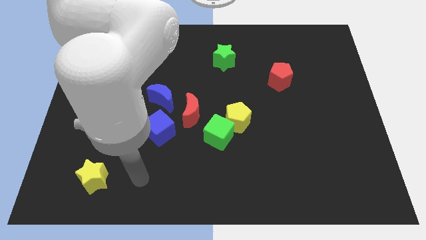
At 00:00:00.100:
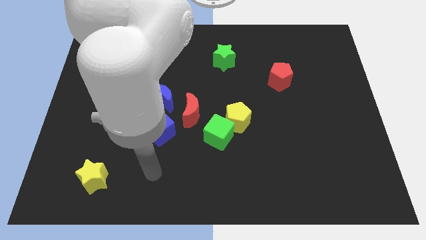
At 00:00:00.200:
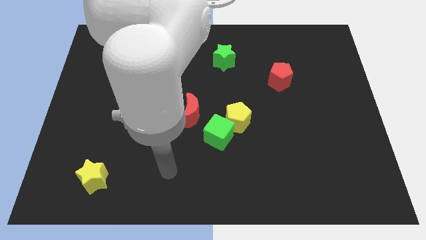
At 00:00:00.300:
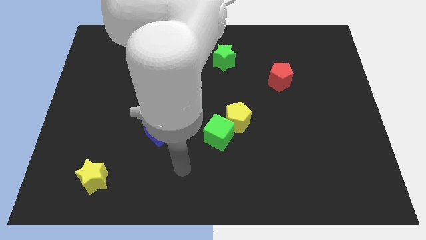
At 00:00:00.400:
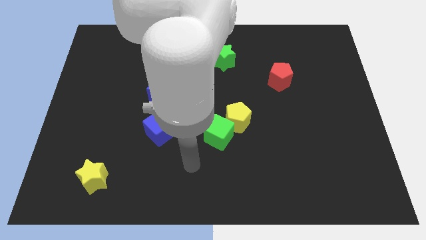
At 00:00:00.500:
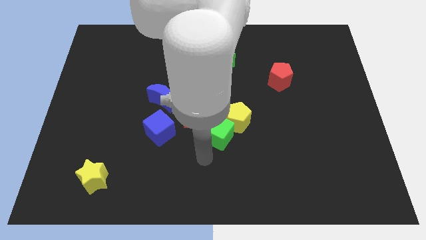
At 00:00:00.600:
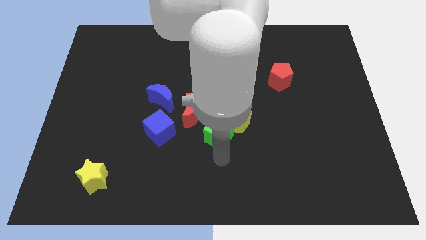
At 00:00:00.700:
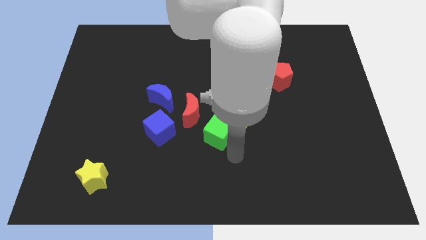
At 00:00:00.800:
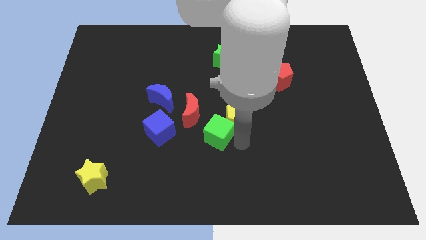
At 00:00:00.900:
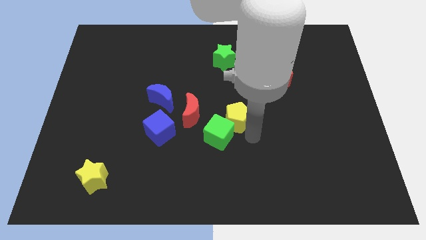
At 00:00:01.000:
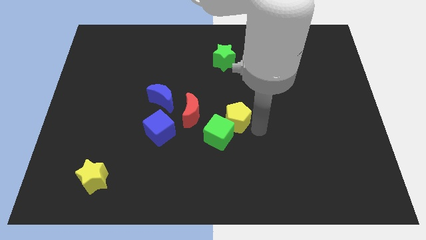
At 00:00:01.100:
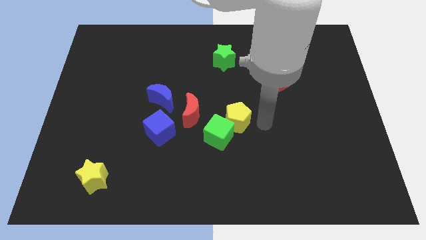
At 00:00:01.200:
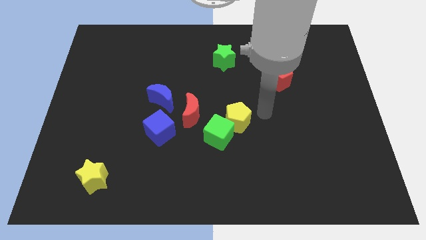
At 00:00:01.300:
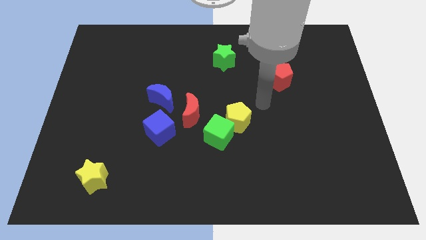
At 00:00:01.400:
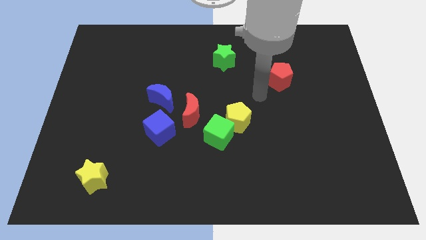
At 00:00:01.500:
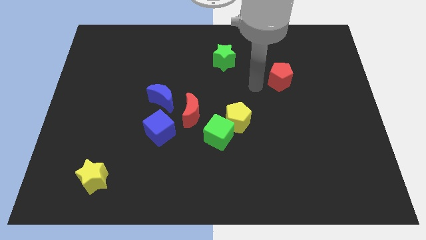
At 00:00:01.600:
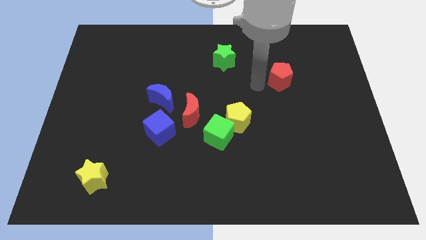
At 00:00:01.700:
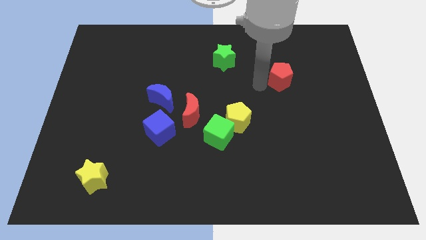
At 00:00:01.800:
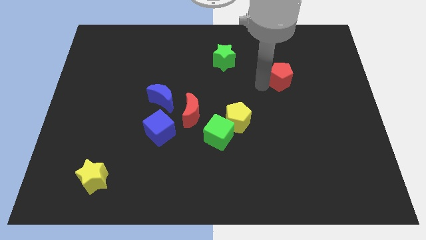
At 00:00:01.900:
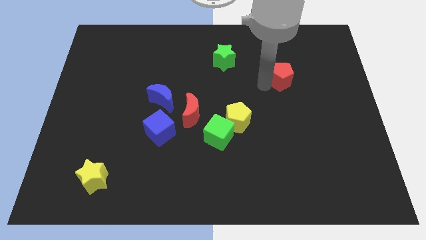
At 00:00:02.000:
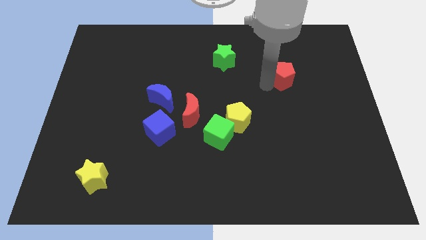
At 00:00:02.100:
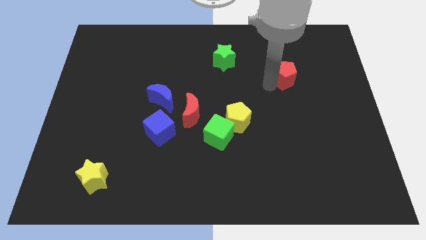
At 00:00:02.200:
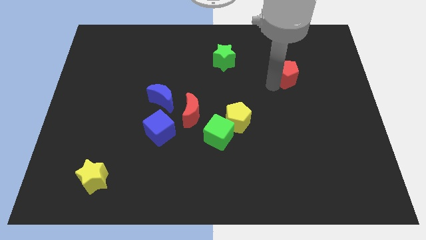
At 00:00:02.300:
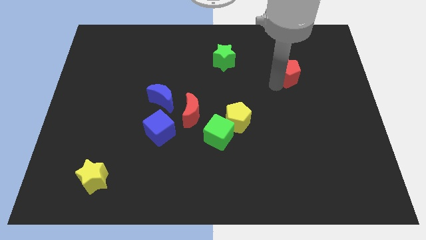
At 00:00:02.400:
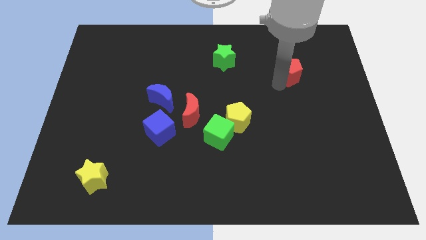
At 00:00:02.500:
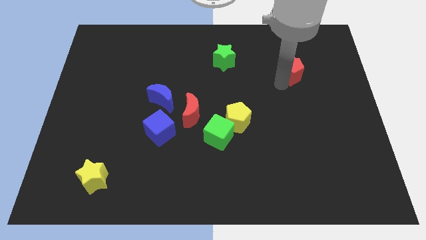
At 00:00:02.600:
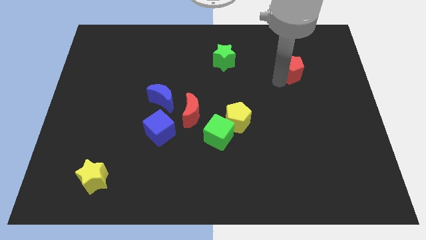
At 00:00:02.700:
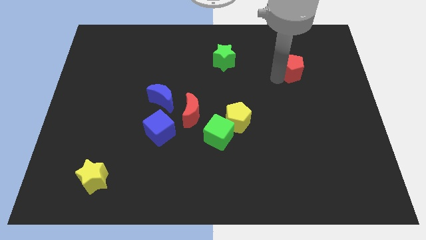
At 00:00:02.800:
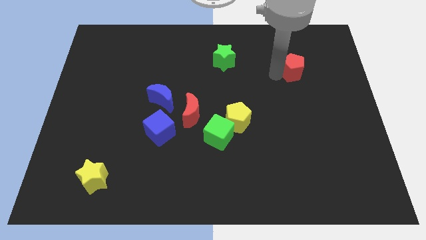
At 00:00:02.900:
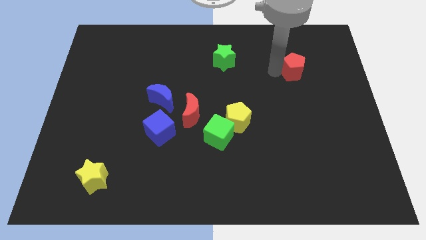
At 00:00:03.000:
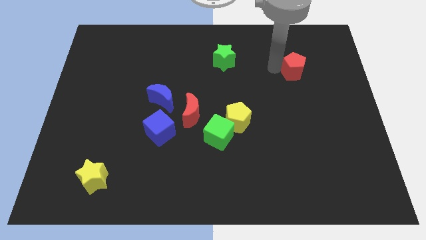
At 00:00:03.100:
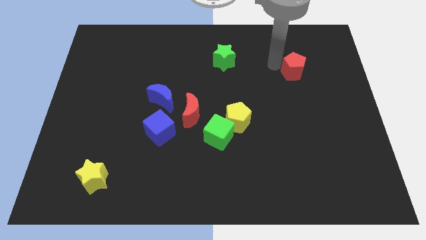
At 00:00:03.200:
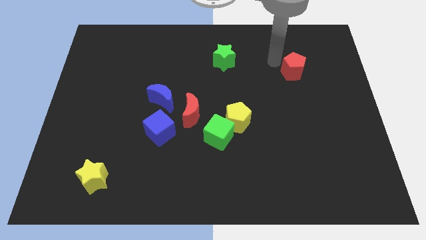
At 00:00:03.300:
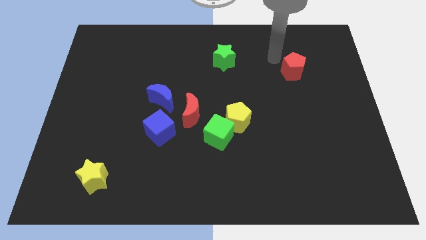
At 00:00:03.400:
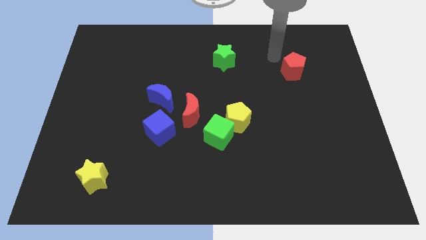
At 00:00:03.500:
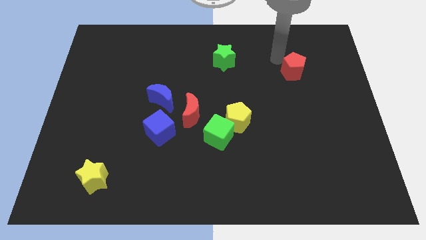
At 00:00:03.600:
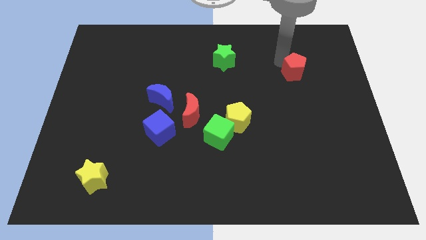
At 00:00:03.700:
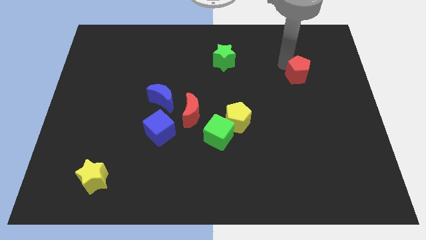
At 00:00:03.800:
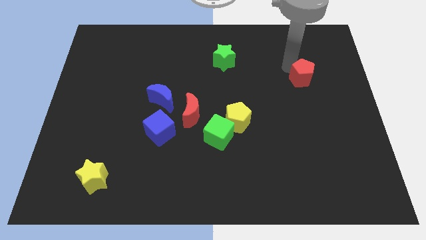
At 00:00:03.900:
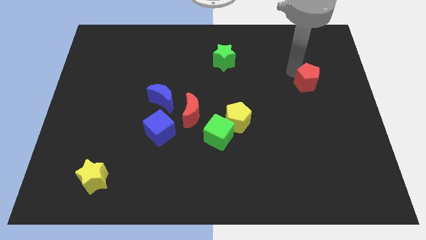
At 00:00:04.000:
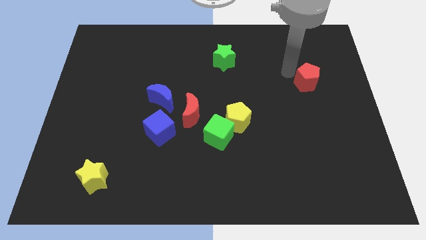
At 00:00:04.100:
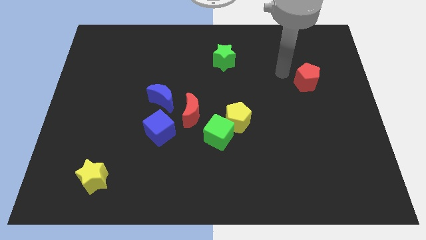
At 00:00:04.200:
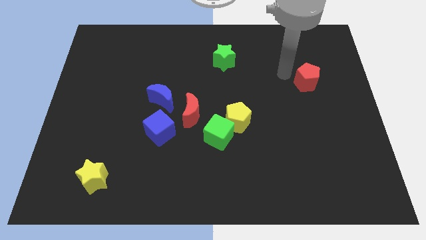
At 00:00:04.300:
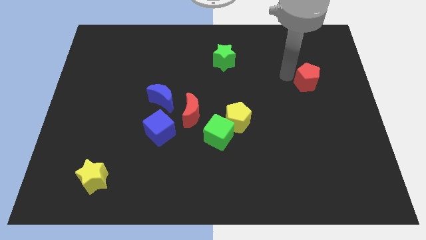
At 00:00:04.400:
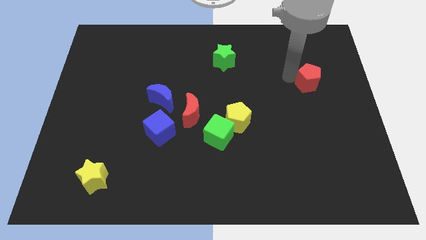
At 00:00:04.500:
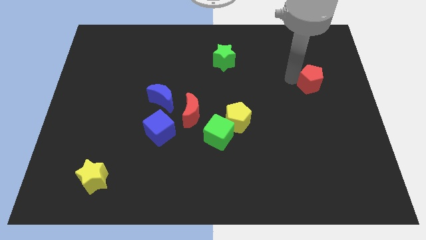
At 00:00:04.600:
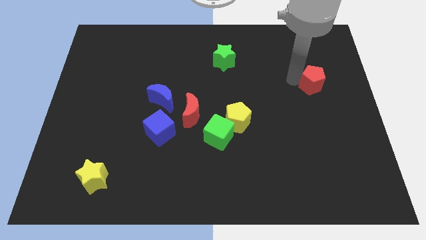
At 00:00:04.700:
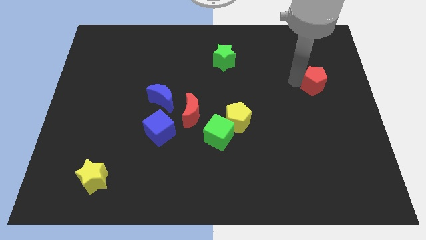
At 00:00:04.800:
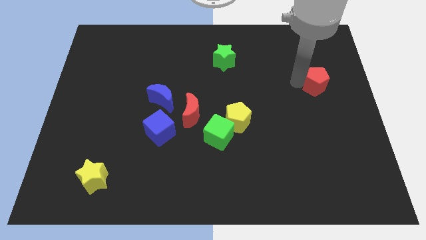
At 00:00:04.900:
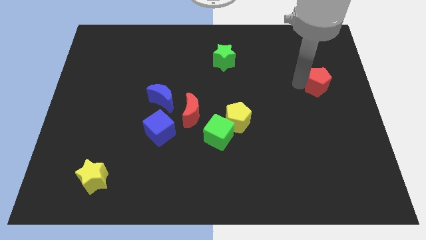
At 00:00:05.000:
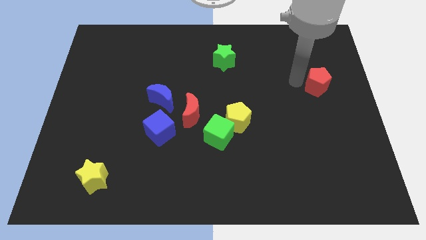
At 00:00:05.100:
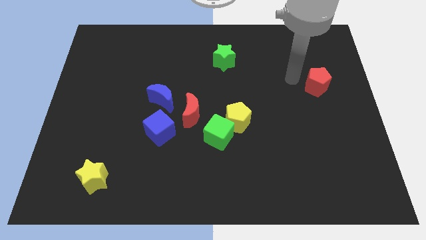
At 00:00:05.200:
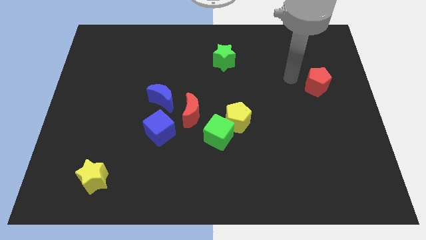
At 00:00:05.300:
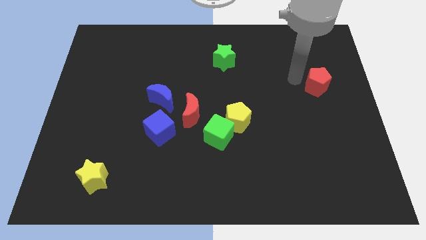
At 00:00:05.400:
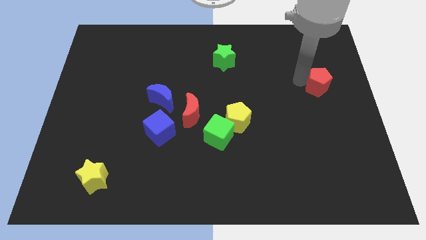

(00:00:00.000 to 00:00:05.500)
slide the red pentagon to the right side of the board

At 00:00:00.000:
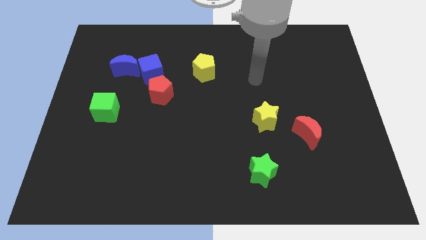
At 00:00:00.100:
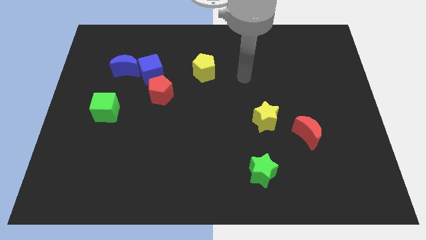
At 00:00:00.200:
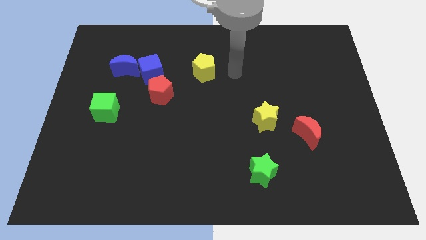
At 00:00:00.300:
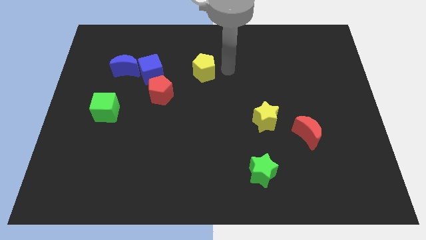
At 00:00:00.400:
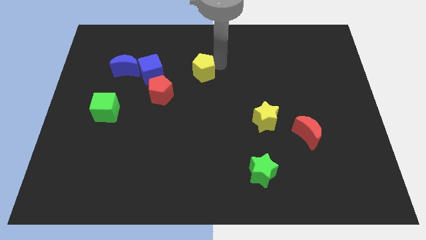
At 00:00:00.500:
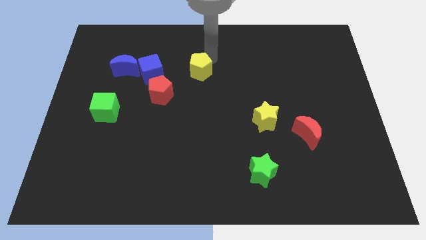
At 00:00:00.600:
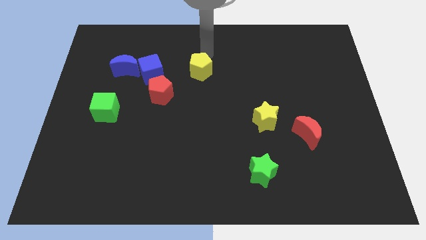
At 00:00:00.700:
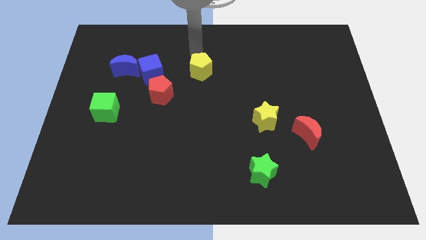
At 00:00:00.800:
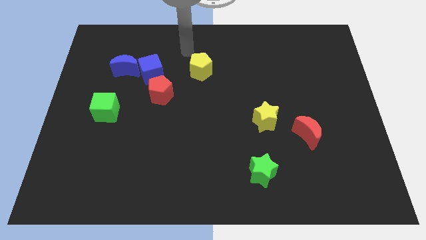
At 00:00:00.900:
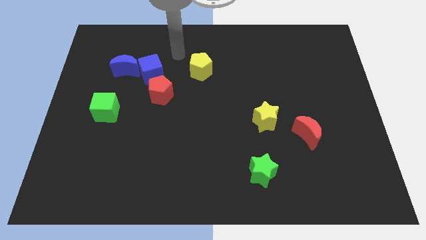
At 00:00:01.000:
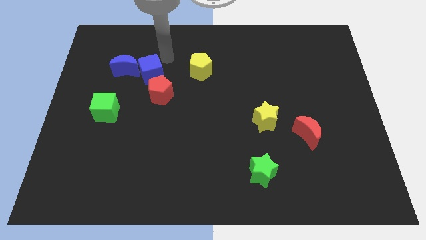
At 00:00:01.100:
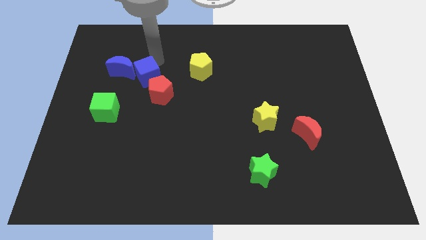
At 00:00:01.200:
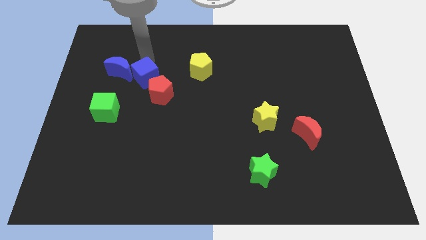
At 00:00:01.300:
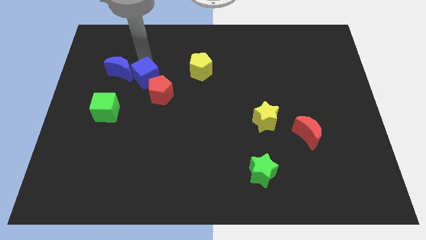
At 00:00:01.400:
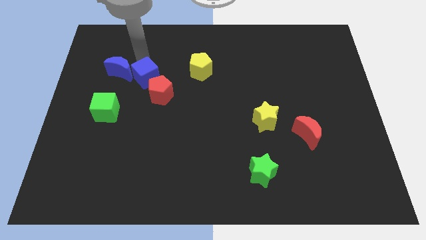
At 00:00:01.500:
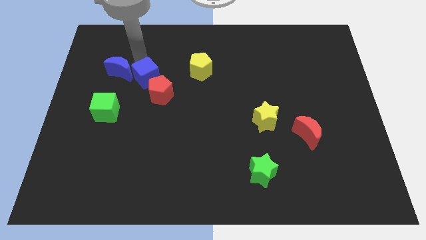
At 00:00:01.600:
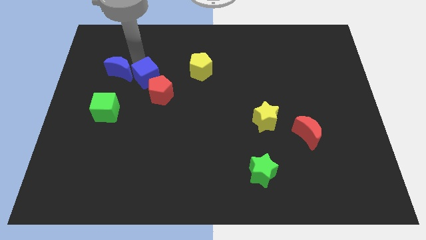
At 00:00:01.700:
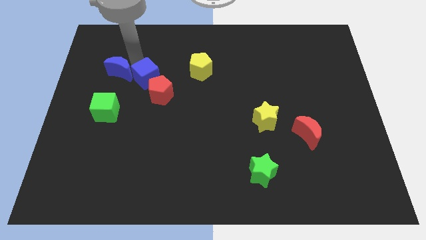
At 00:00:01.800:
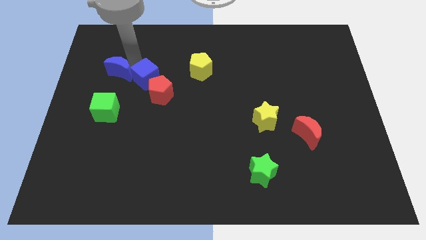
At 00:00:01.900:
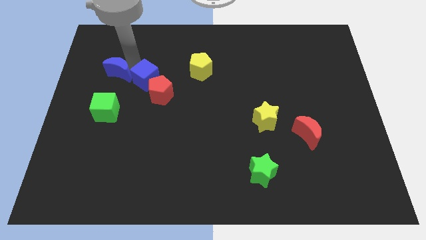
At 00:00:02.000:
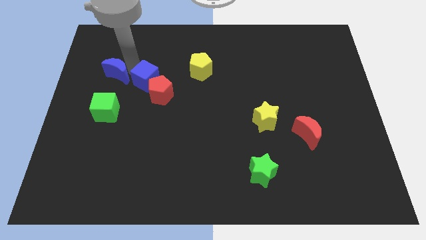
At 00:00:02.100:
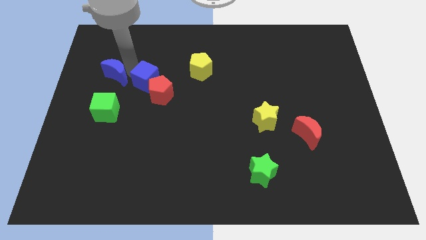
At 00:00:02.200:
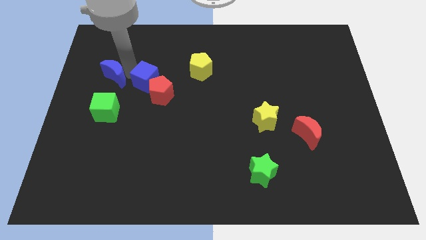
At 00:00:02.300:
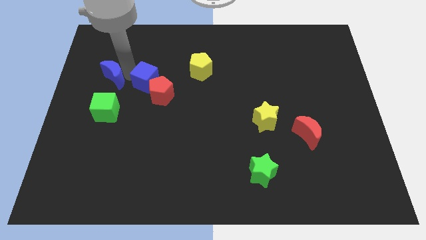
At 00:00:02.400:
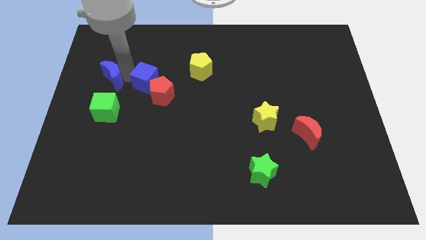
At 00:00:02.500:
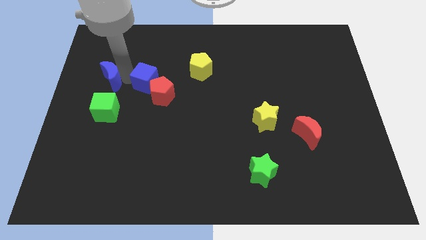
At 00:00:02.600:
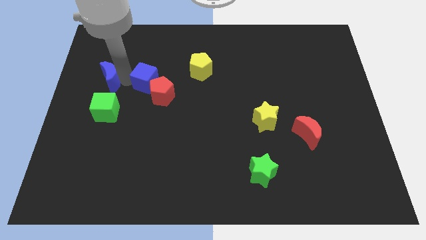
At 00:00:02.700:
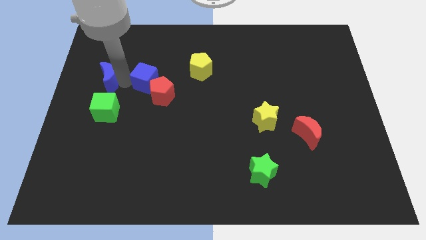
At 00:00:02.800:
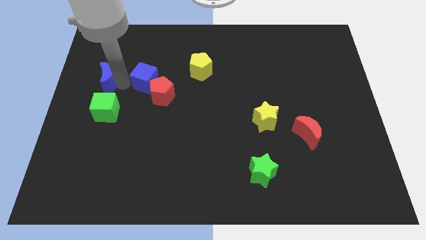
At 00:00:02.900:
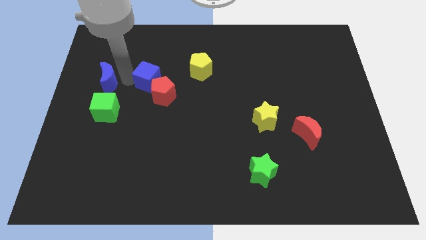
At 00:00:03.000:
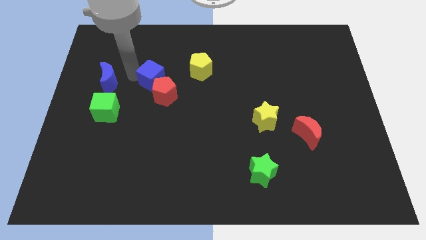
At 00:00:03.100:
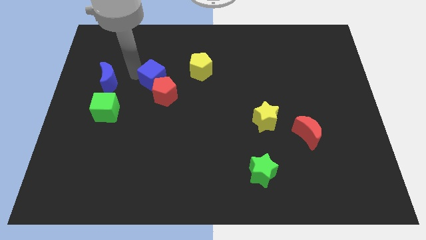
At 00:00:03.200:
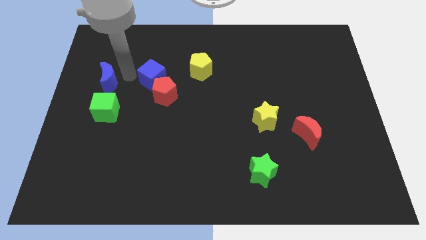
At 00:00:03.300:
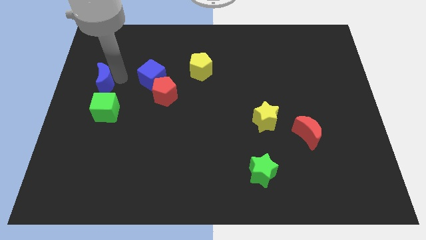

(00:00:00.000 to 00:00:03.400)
move the blue moon to the left side of the board
